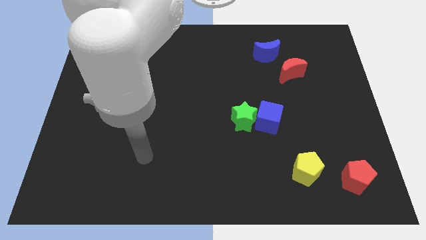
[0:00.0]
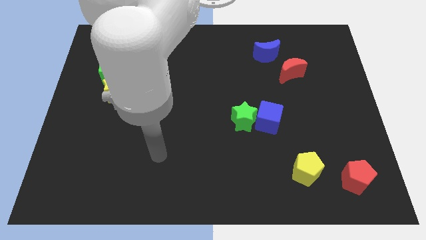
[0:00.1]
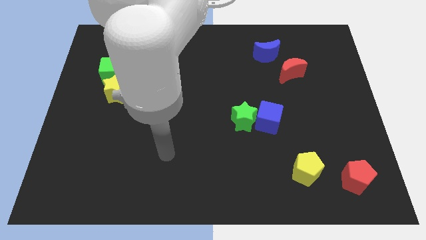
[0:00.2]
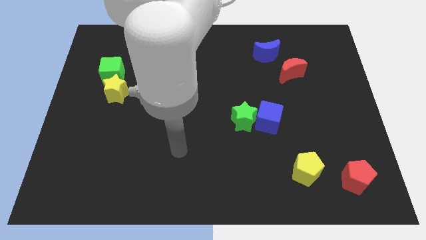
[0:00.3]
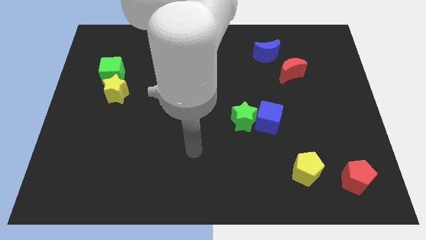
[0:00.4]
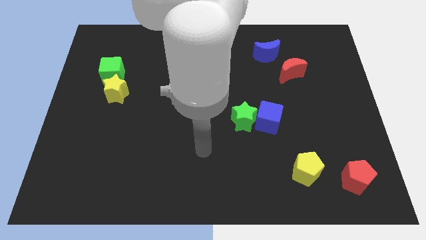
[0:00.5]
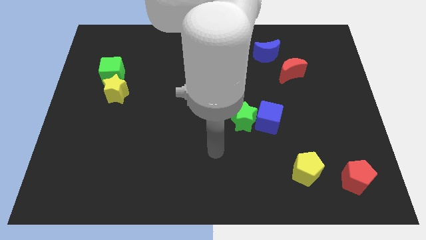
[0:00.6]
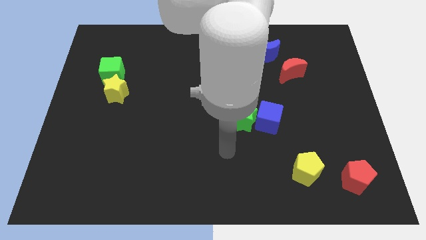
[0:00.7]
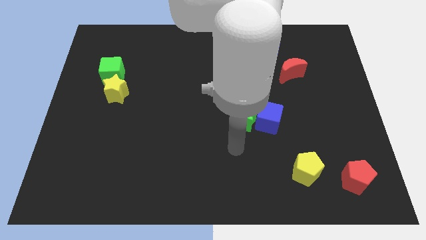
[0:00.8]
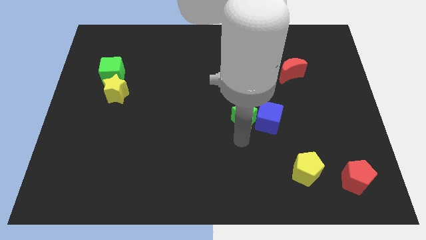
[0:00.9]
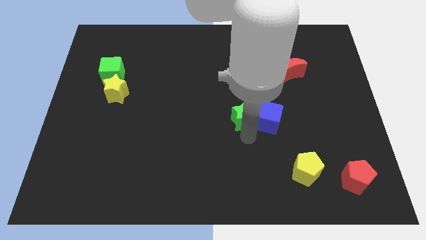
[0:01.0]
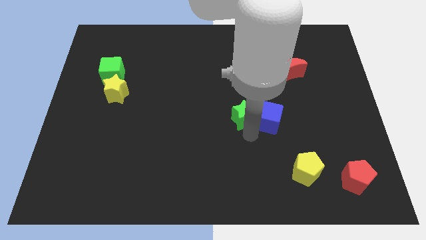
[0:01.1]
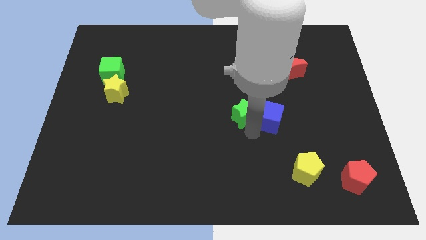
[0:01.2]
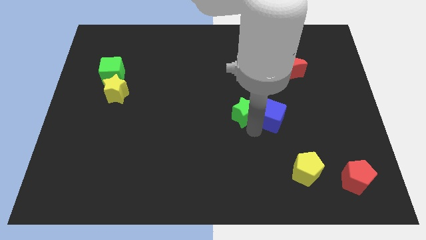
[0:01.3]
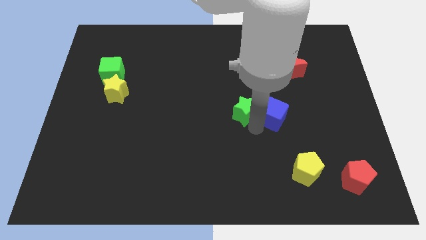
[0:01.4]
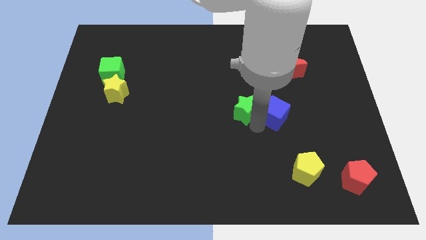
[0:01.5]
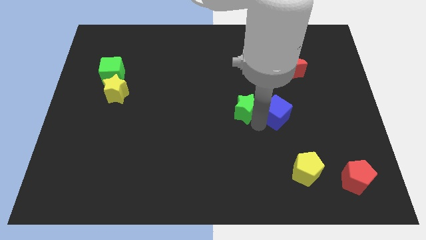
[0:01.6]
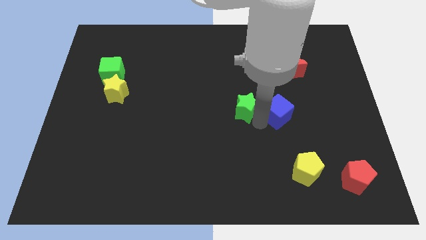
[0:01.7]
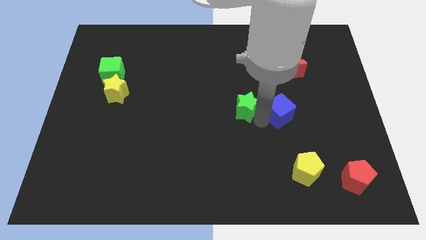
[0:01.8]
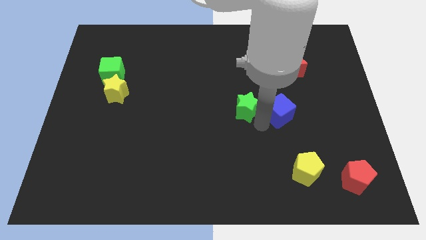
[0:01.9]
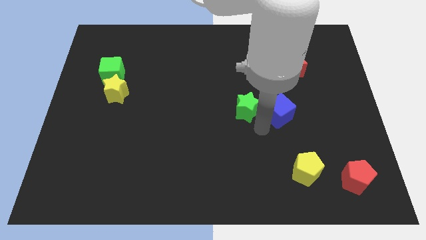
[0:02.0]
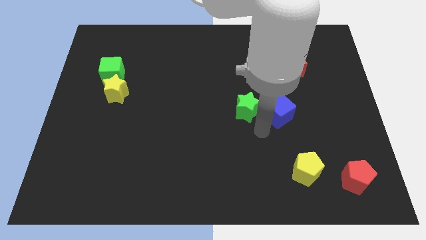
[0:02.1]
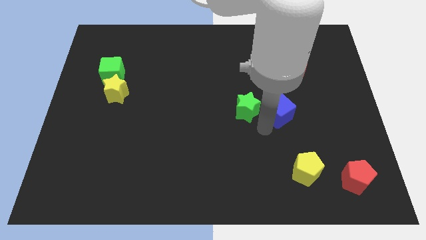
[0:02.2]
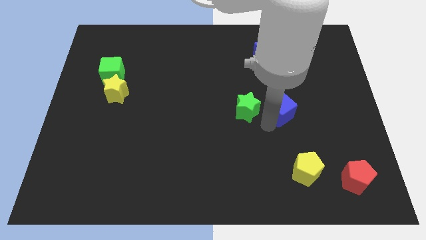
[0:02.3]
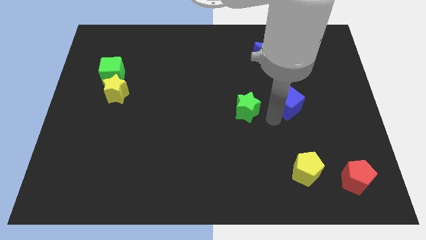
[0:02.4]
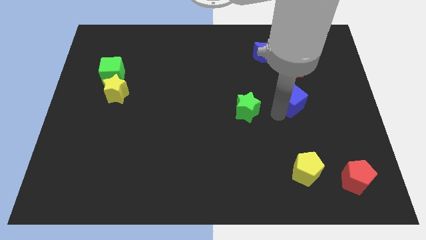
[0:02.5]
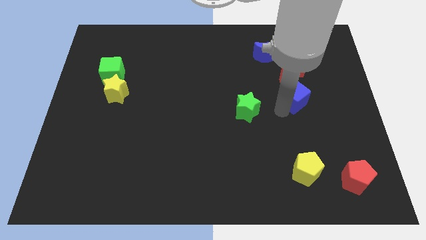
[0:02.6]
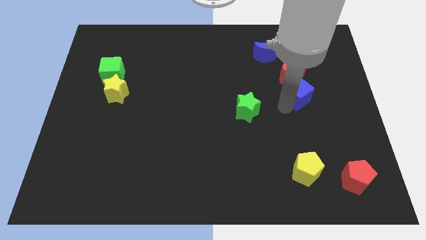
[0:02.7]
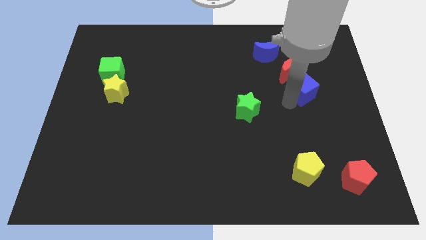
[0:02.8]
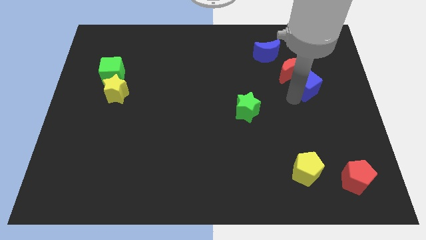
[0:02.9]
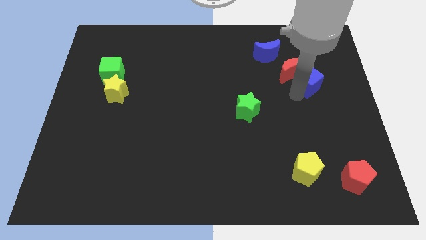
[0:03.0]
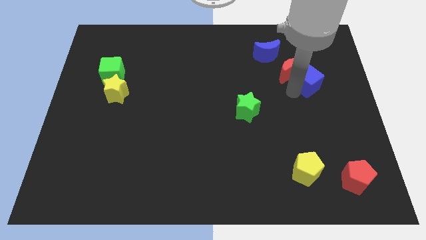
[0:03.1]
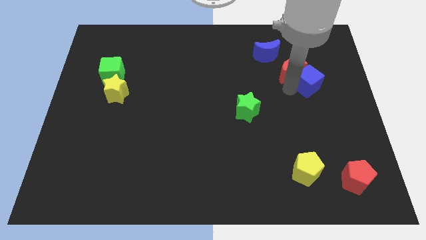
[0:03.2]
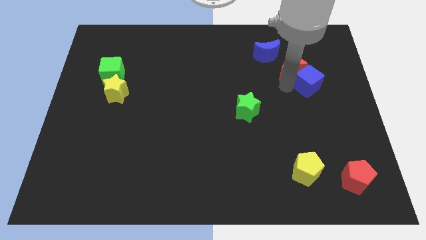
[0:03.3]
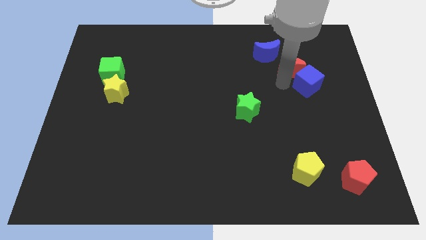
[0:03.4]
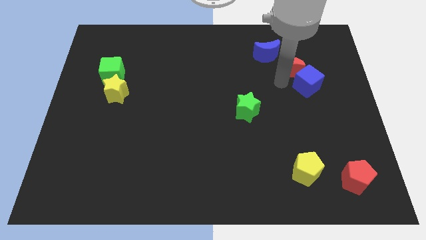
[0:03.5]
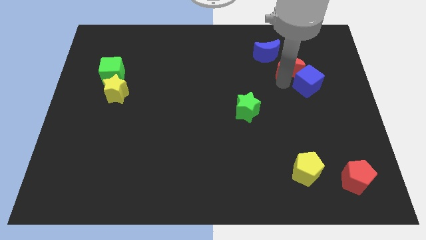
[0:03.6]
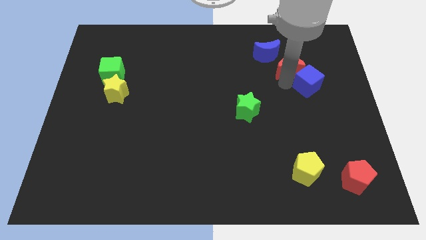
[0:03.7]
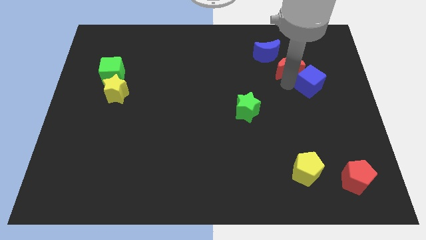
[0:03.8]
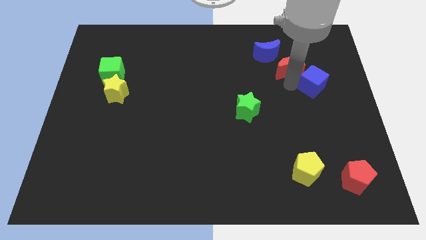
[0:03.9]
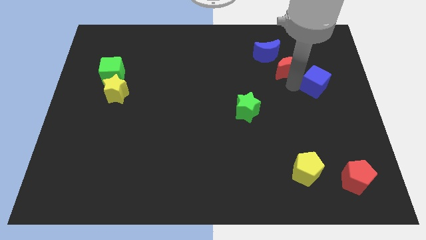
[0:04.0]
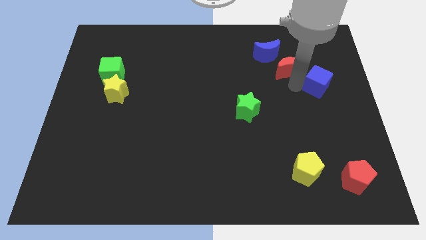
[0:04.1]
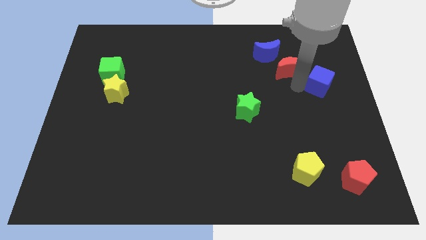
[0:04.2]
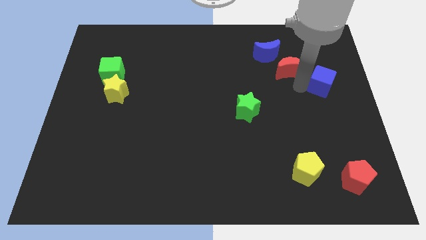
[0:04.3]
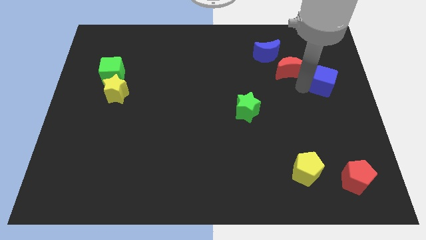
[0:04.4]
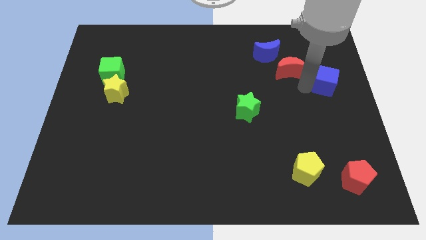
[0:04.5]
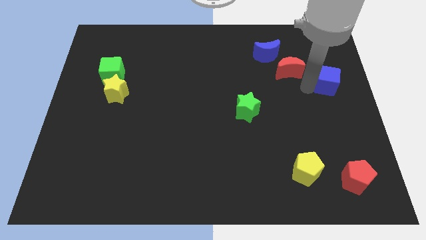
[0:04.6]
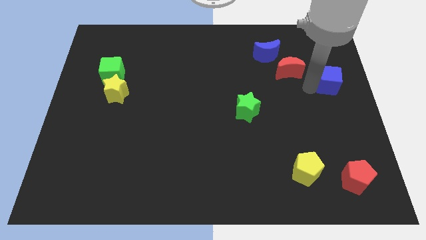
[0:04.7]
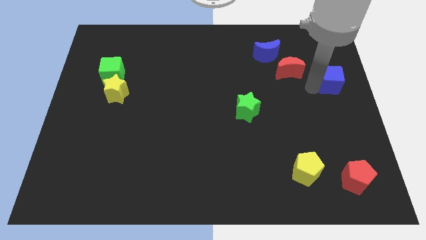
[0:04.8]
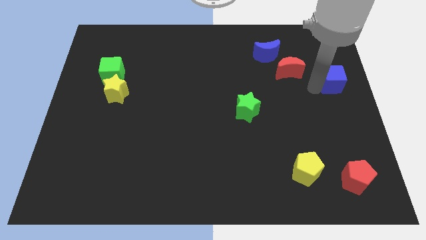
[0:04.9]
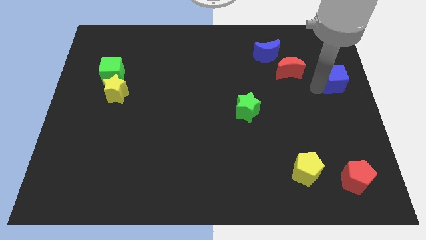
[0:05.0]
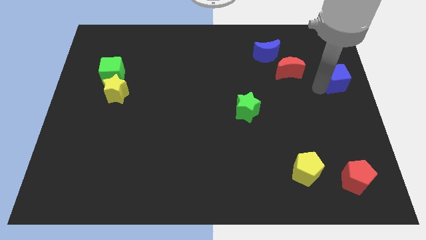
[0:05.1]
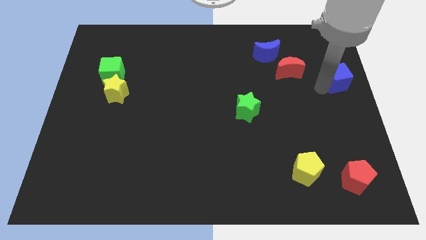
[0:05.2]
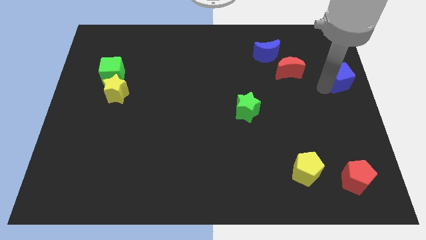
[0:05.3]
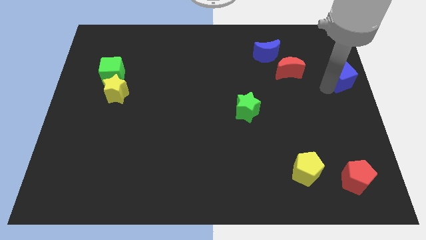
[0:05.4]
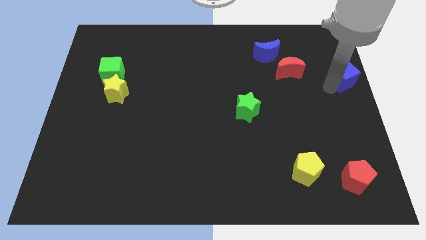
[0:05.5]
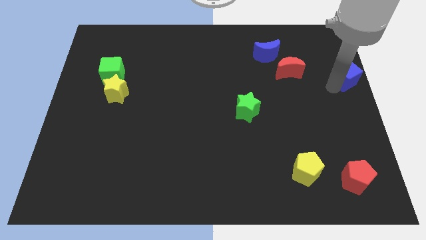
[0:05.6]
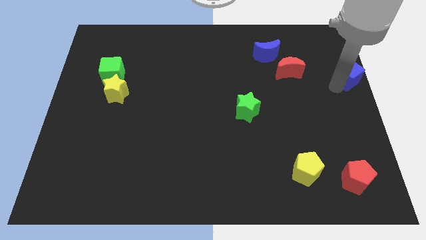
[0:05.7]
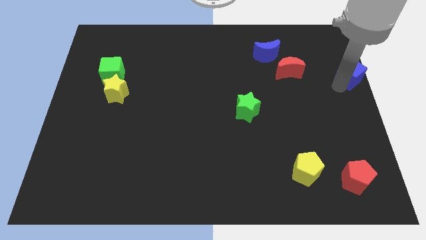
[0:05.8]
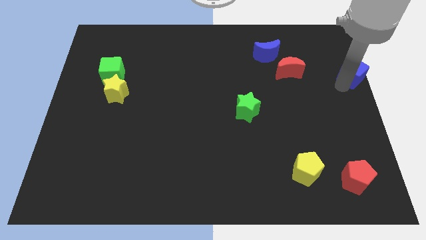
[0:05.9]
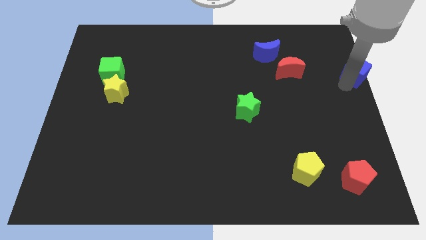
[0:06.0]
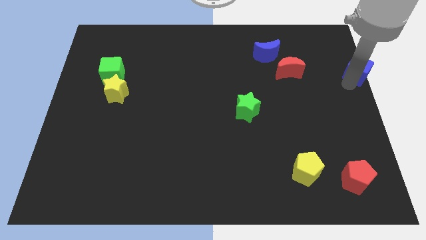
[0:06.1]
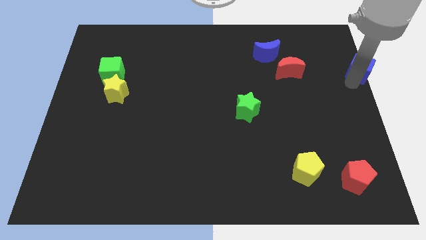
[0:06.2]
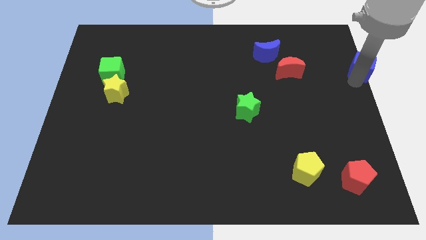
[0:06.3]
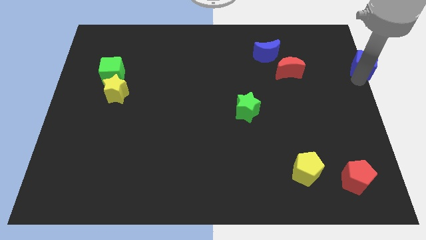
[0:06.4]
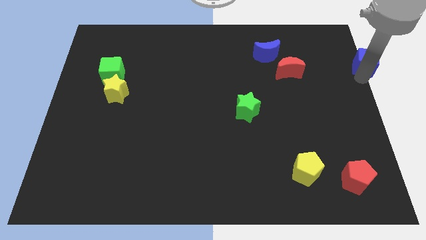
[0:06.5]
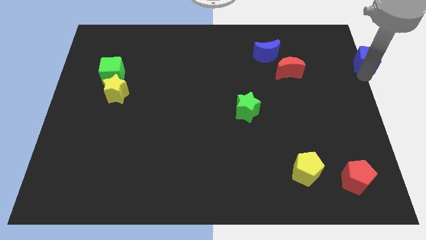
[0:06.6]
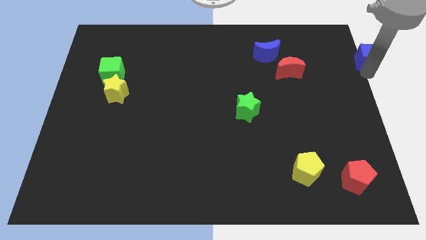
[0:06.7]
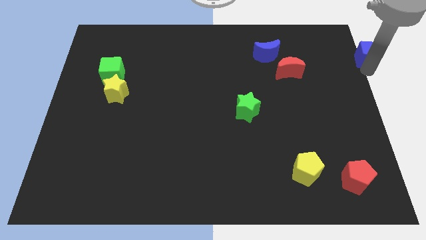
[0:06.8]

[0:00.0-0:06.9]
move the blue cube to the upper right corner
